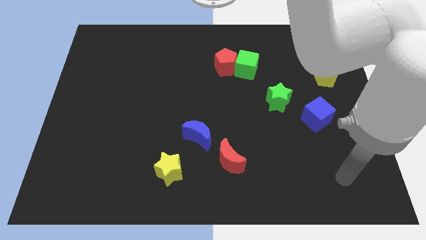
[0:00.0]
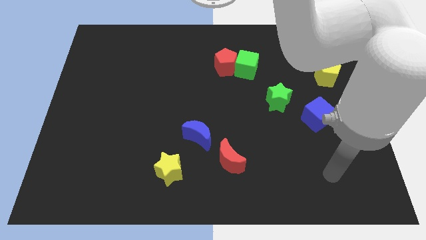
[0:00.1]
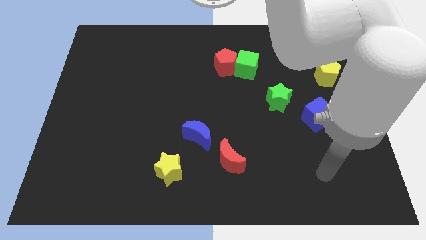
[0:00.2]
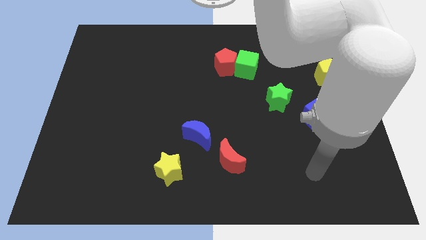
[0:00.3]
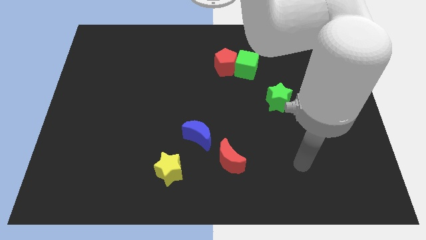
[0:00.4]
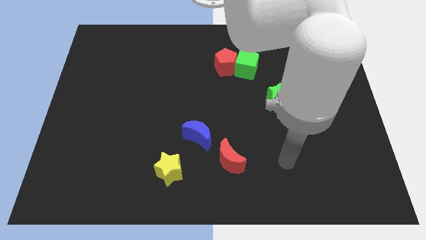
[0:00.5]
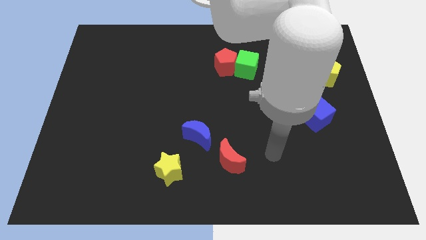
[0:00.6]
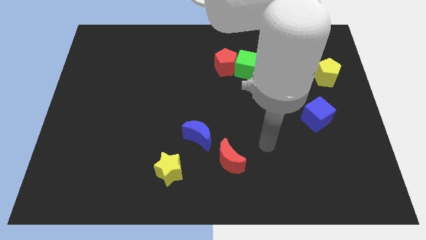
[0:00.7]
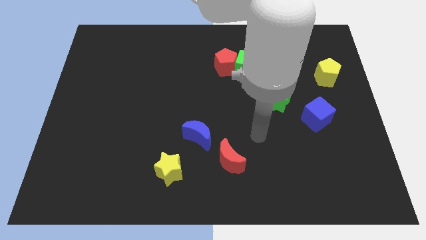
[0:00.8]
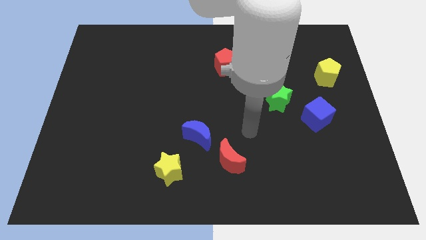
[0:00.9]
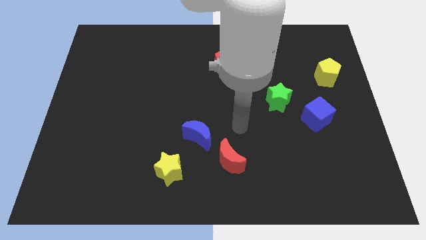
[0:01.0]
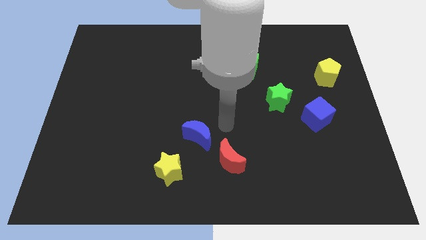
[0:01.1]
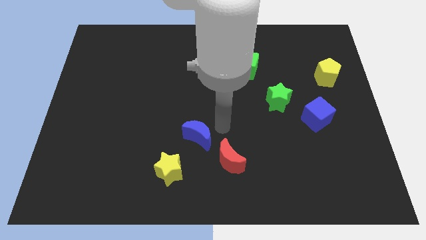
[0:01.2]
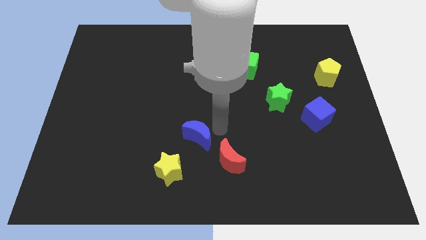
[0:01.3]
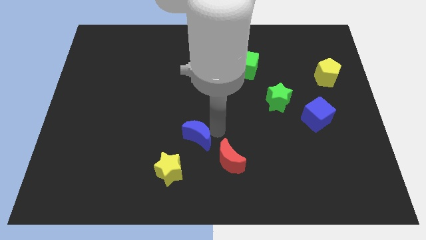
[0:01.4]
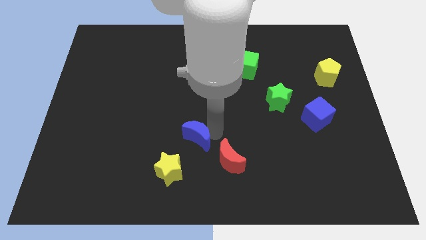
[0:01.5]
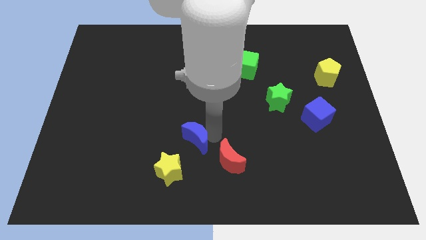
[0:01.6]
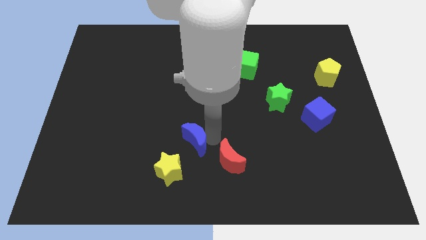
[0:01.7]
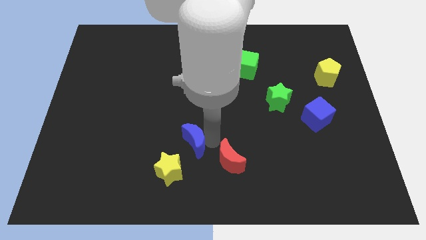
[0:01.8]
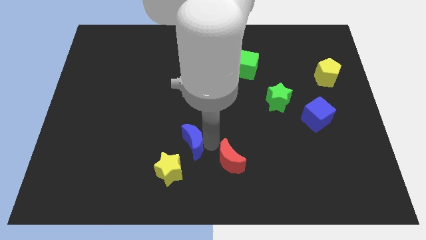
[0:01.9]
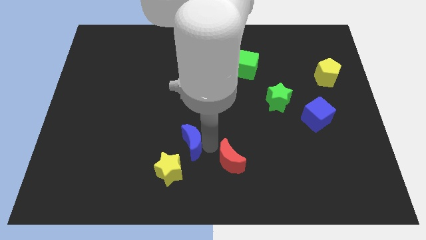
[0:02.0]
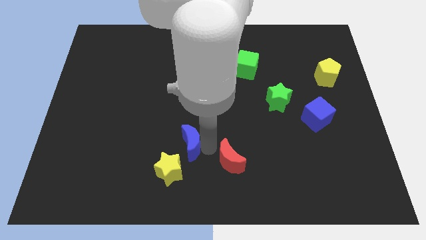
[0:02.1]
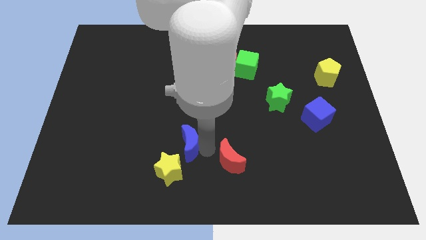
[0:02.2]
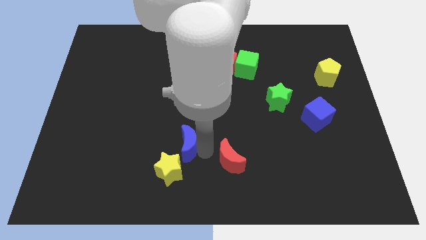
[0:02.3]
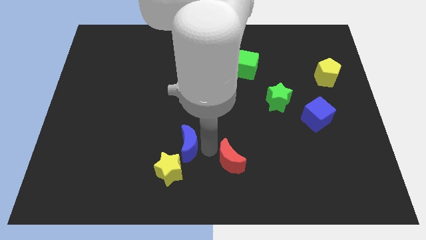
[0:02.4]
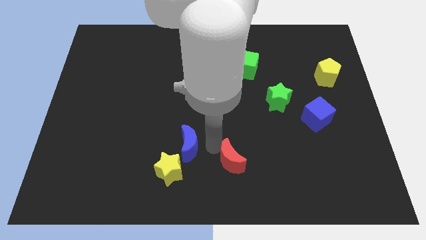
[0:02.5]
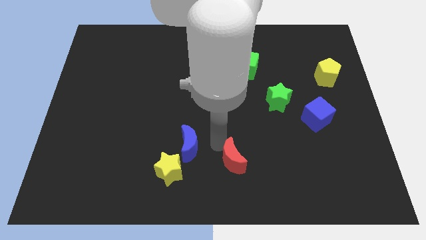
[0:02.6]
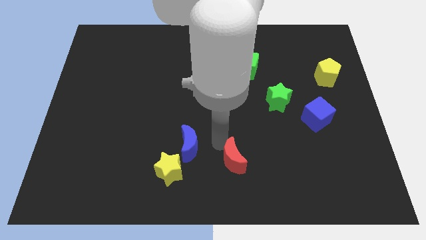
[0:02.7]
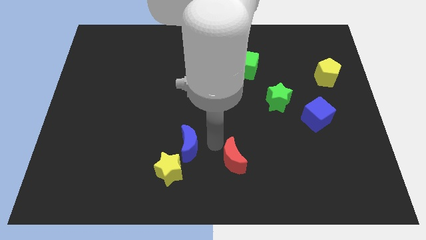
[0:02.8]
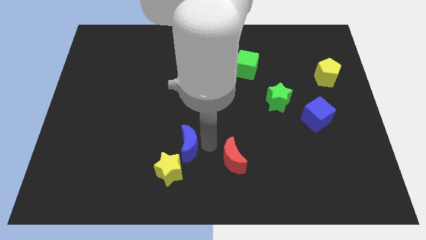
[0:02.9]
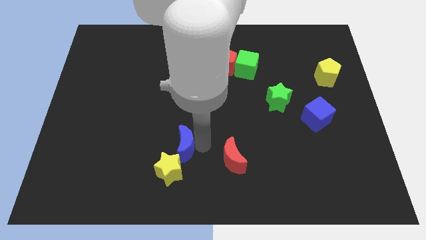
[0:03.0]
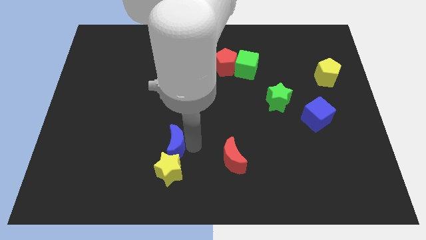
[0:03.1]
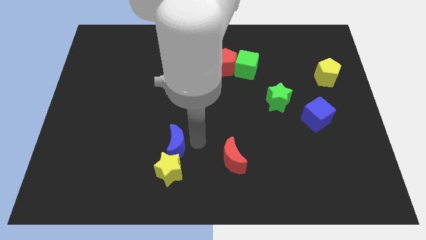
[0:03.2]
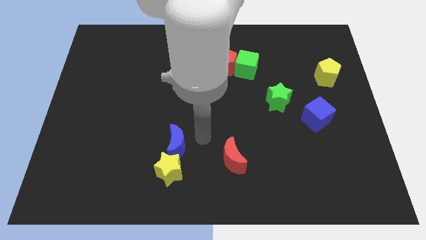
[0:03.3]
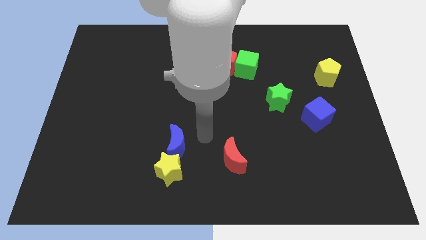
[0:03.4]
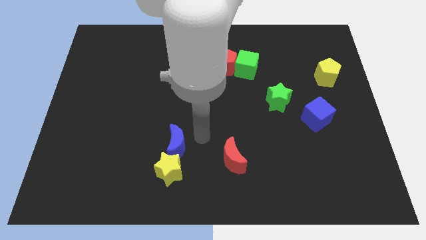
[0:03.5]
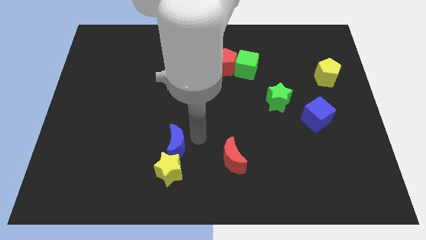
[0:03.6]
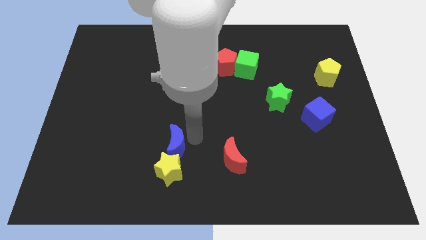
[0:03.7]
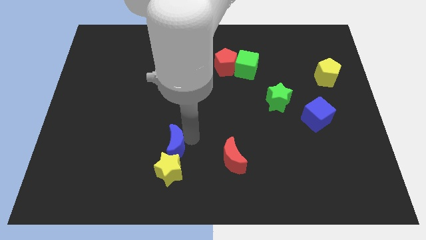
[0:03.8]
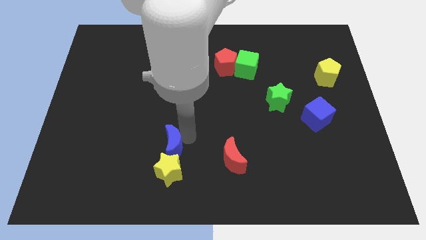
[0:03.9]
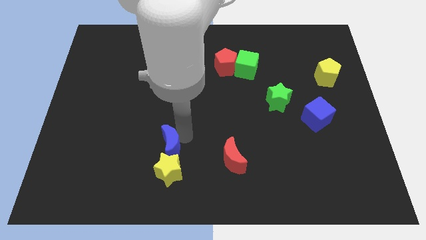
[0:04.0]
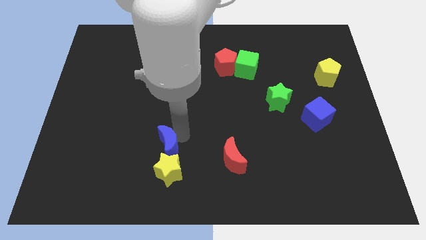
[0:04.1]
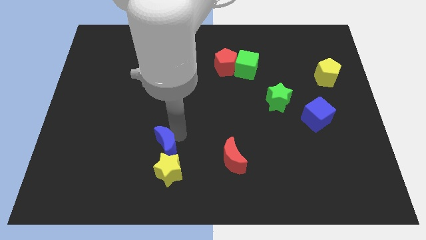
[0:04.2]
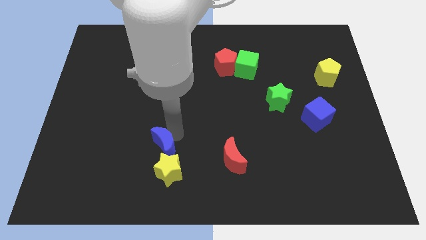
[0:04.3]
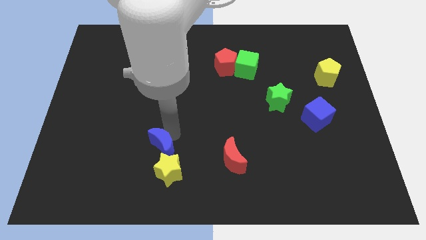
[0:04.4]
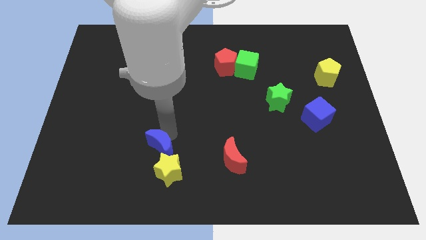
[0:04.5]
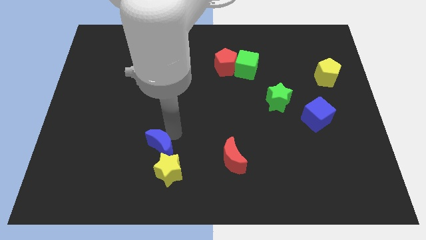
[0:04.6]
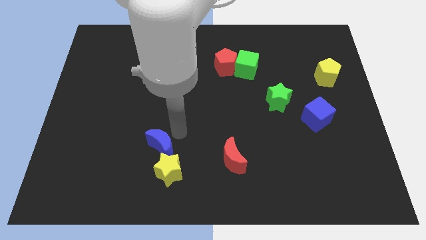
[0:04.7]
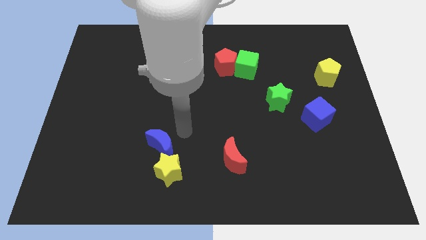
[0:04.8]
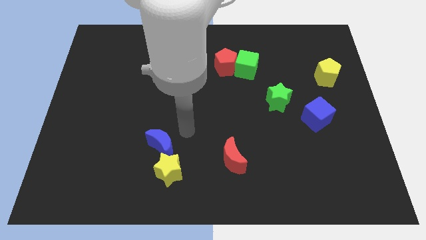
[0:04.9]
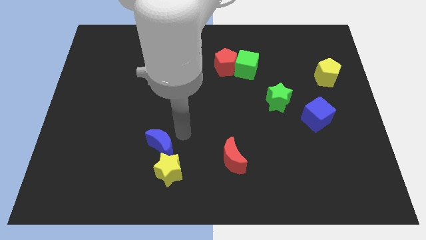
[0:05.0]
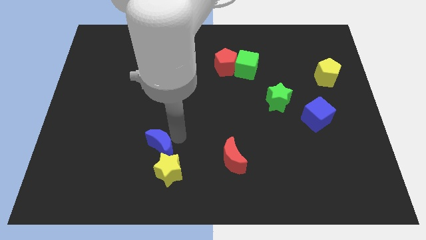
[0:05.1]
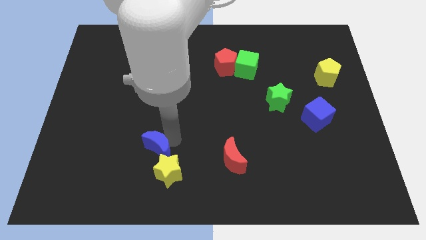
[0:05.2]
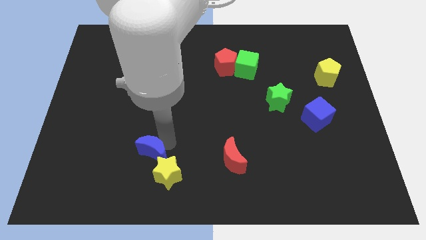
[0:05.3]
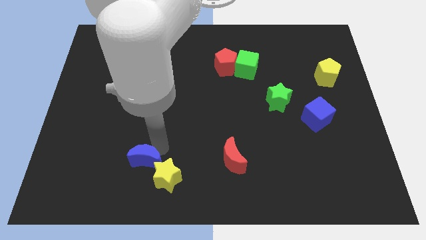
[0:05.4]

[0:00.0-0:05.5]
put the blue moon just left of the yellow star

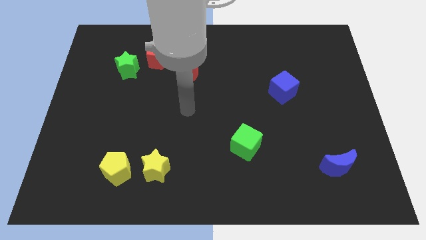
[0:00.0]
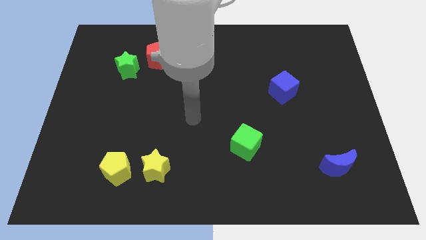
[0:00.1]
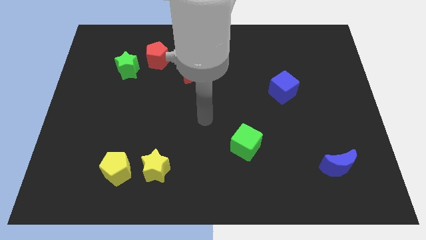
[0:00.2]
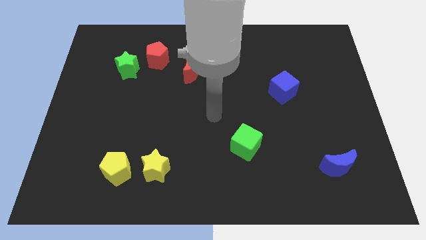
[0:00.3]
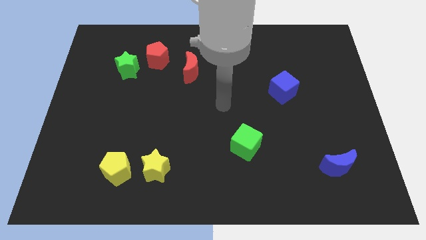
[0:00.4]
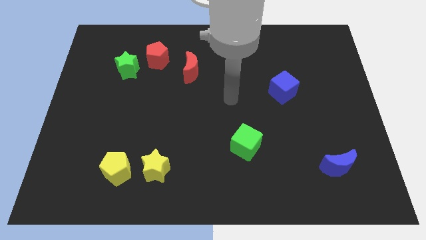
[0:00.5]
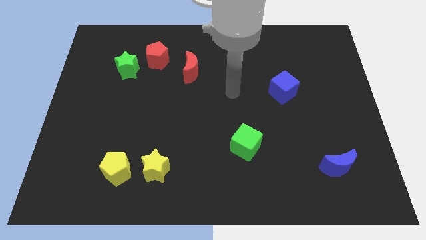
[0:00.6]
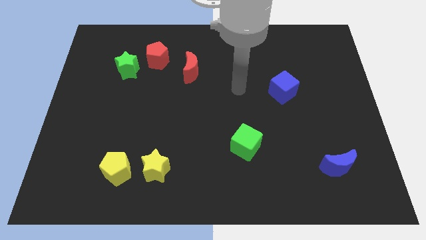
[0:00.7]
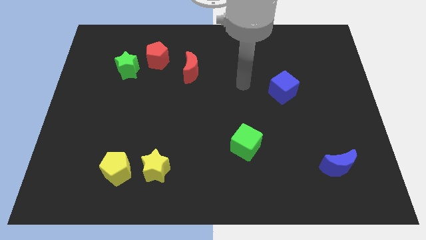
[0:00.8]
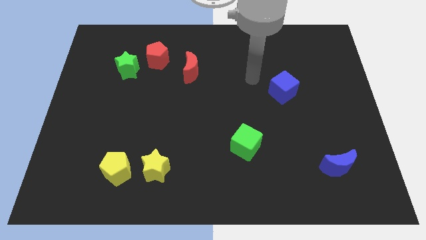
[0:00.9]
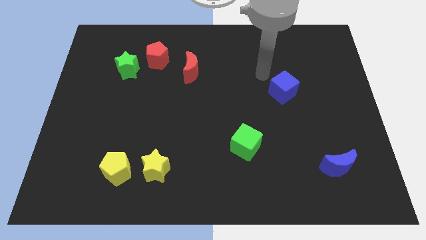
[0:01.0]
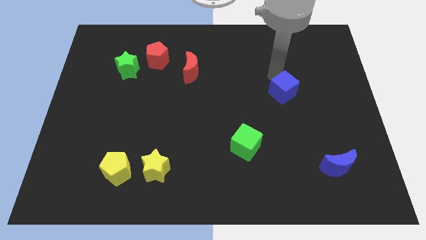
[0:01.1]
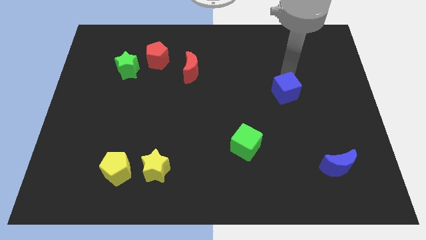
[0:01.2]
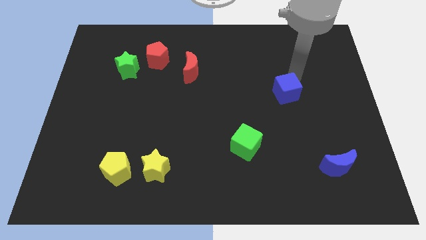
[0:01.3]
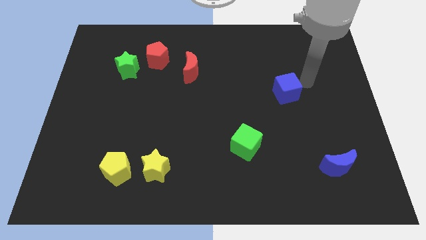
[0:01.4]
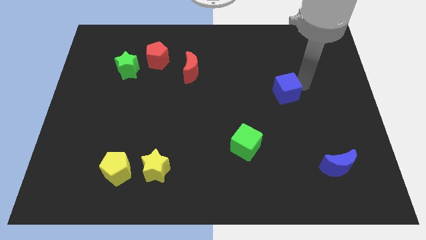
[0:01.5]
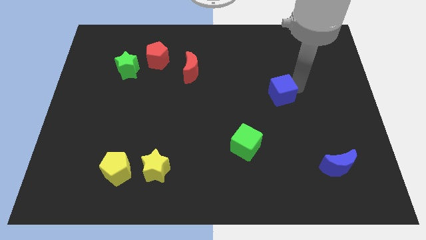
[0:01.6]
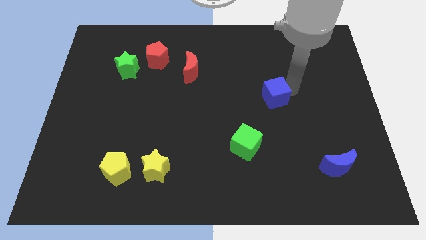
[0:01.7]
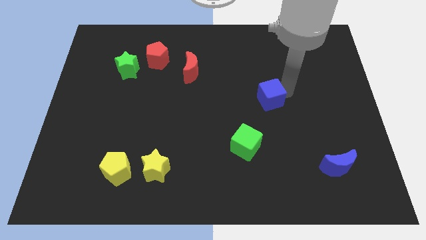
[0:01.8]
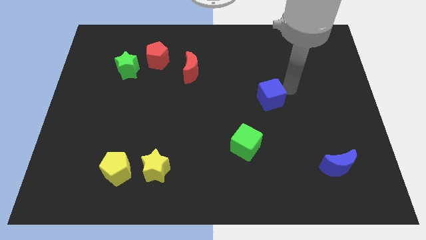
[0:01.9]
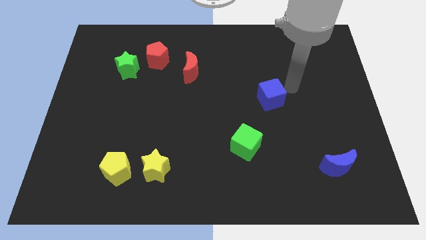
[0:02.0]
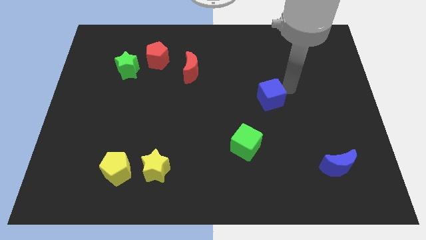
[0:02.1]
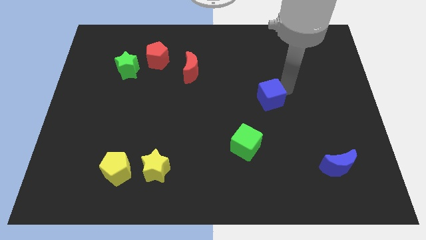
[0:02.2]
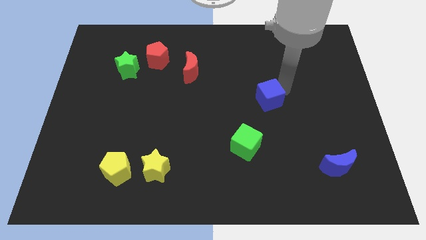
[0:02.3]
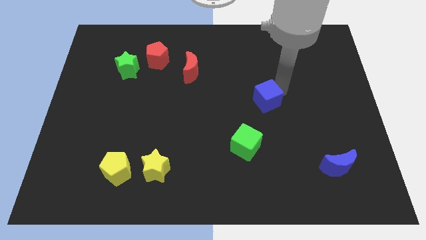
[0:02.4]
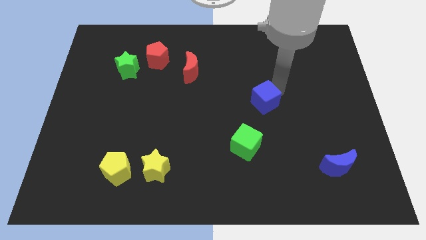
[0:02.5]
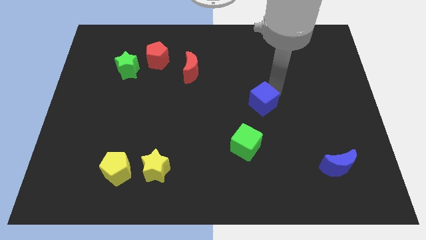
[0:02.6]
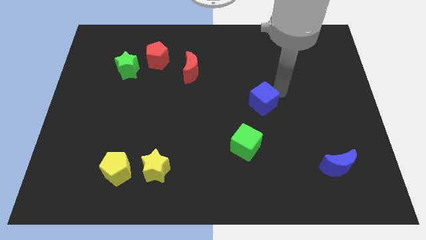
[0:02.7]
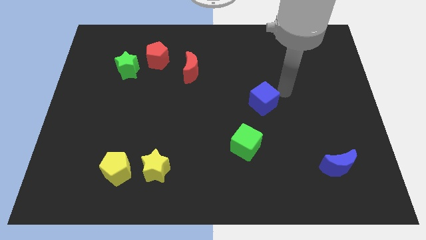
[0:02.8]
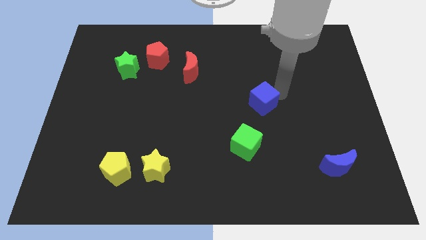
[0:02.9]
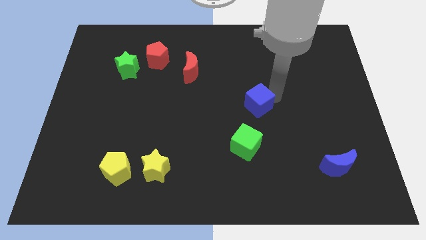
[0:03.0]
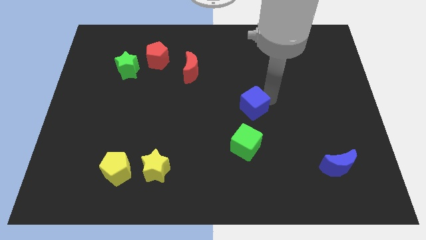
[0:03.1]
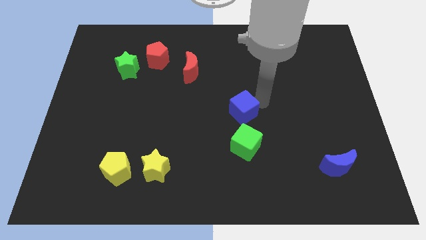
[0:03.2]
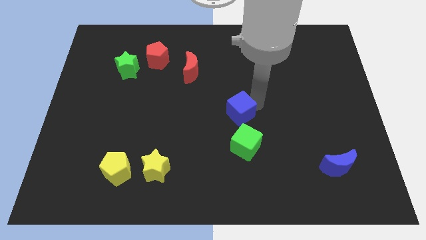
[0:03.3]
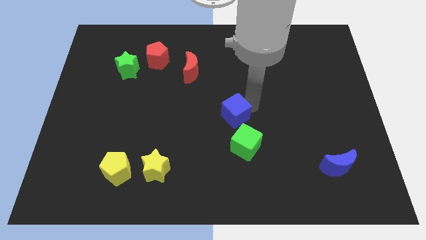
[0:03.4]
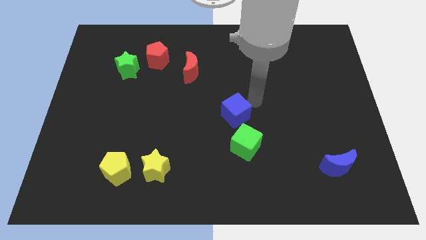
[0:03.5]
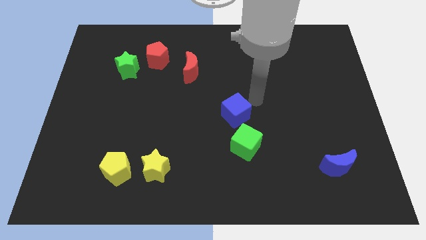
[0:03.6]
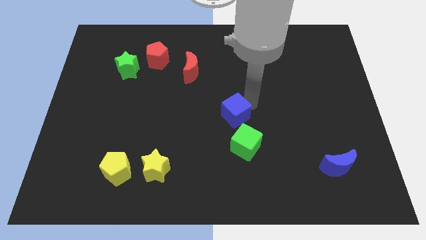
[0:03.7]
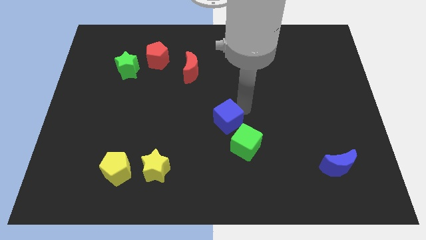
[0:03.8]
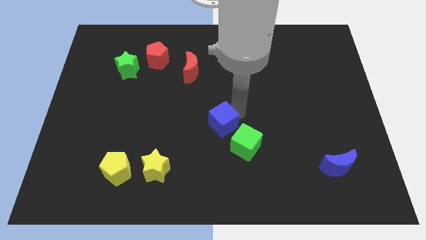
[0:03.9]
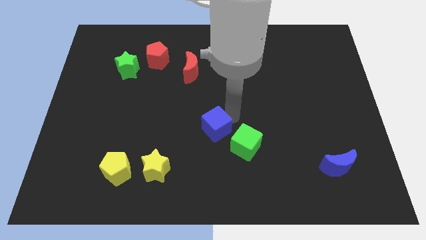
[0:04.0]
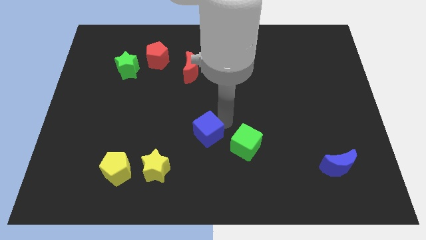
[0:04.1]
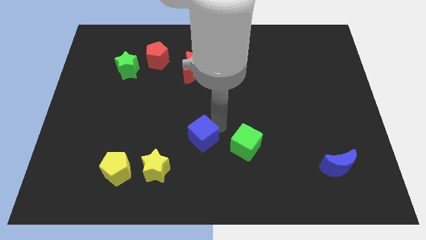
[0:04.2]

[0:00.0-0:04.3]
put the blue cube to the top right side of the yellow star
